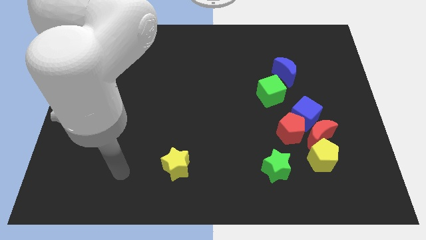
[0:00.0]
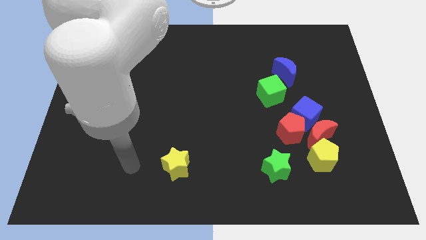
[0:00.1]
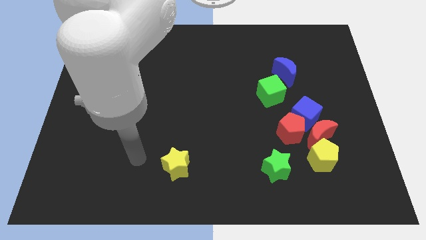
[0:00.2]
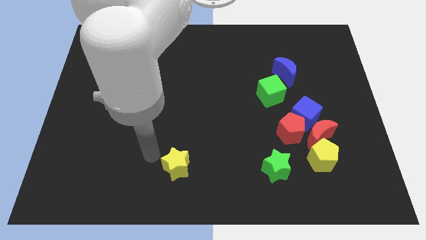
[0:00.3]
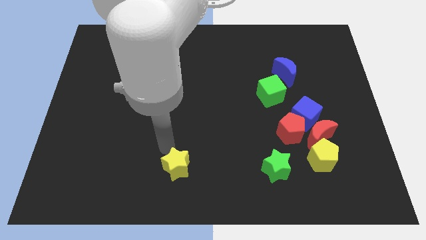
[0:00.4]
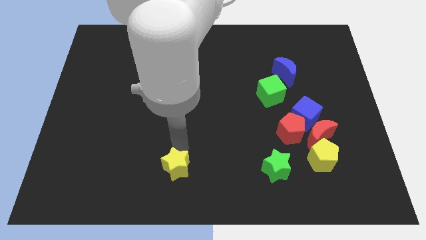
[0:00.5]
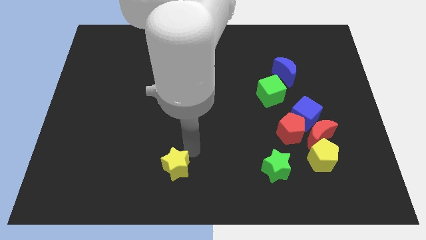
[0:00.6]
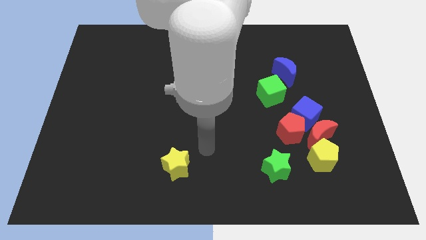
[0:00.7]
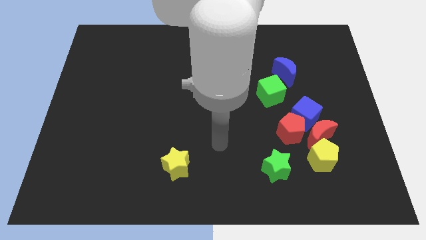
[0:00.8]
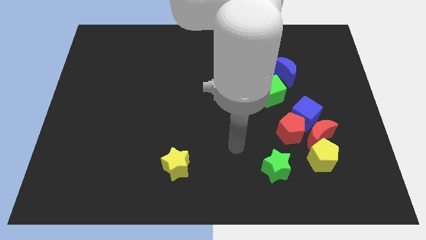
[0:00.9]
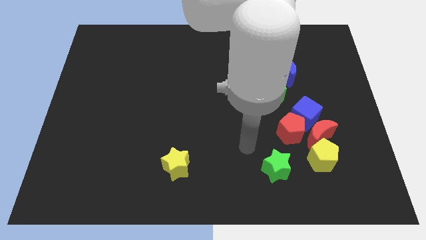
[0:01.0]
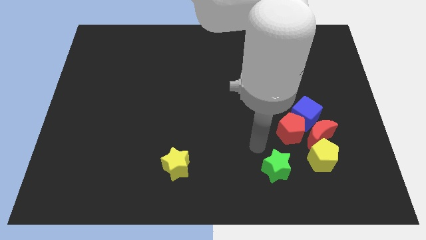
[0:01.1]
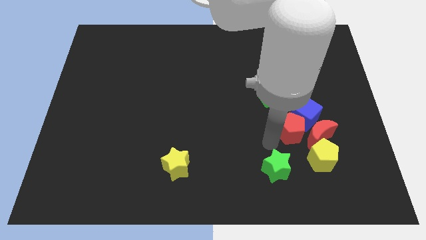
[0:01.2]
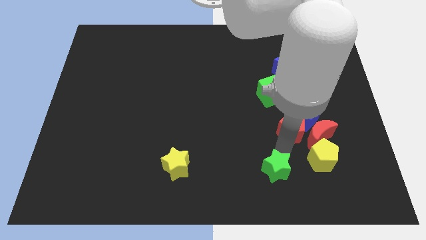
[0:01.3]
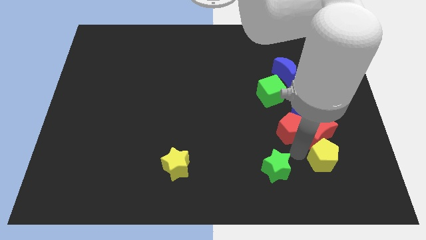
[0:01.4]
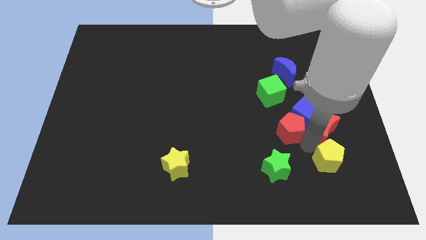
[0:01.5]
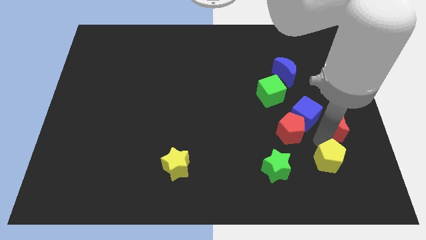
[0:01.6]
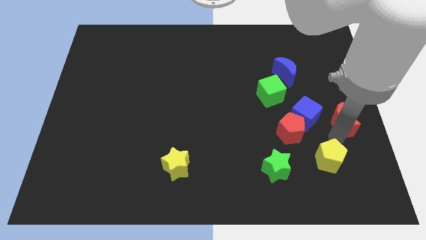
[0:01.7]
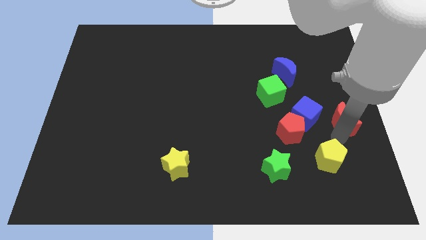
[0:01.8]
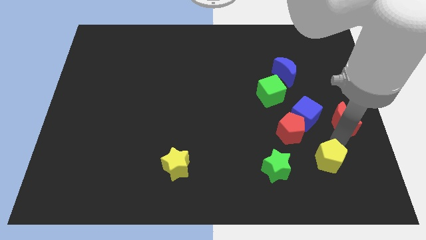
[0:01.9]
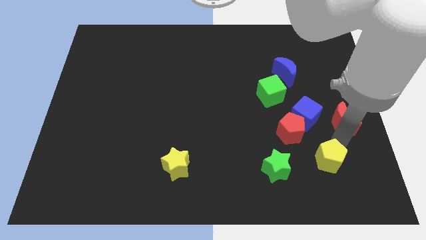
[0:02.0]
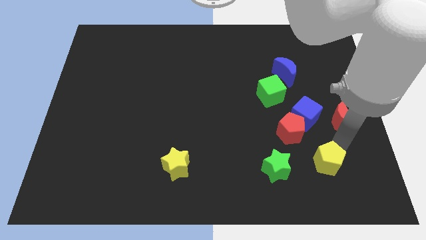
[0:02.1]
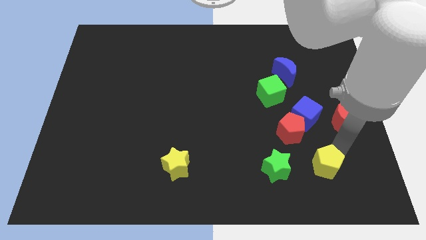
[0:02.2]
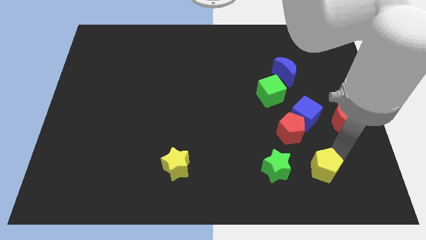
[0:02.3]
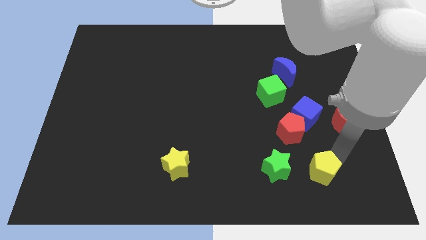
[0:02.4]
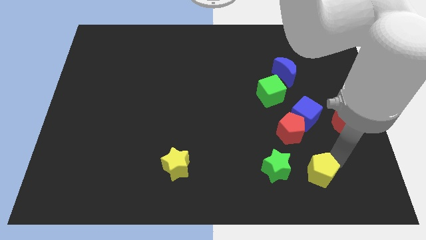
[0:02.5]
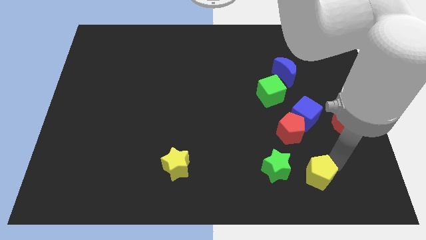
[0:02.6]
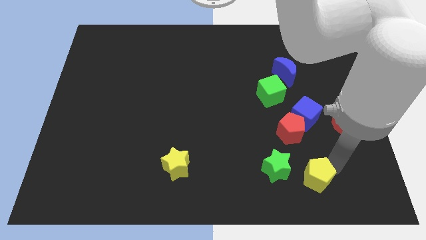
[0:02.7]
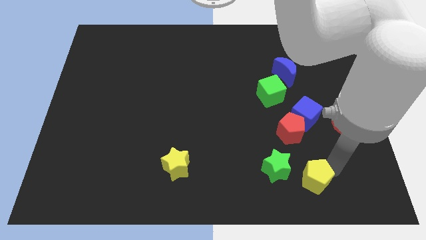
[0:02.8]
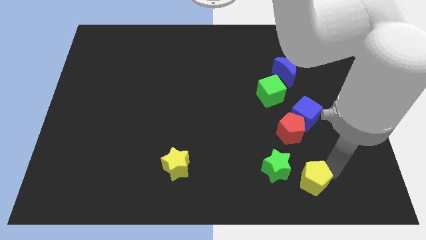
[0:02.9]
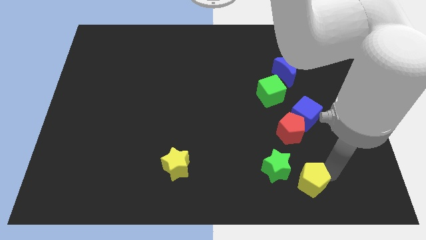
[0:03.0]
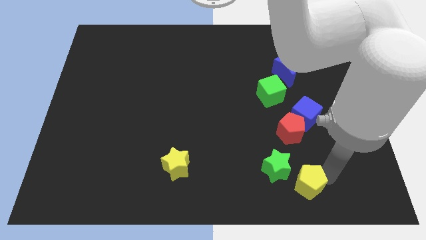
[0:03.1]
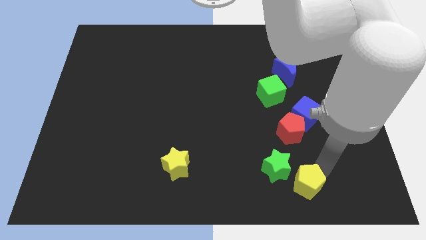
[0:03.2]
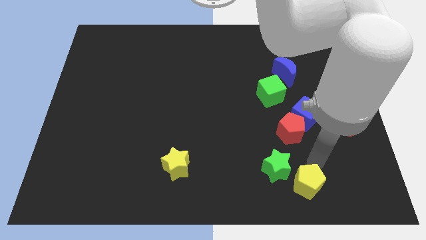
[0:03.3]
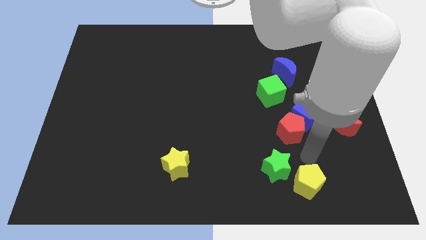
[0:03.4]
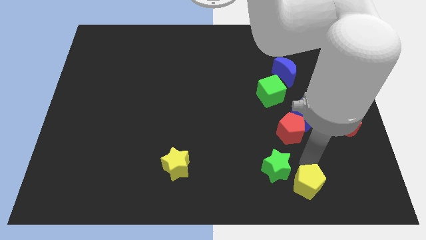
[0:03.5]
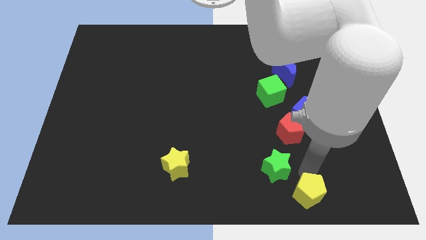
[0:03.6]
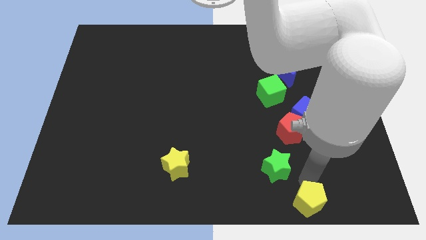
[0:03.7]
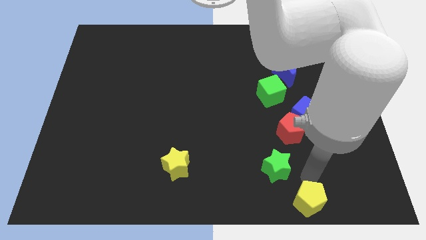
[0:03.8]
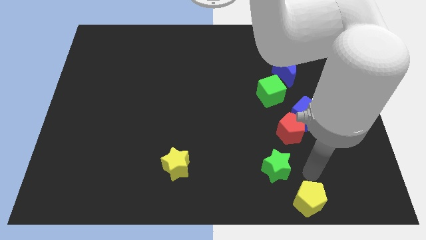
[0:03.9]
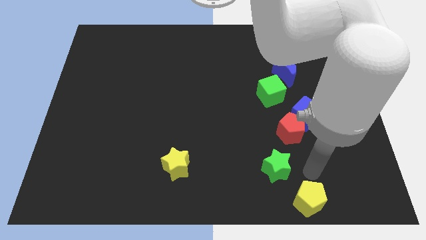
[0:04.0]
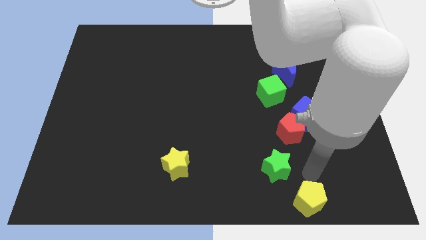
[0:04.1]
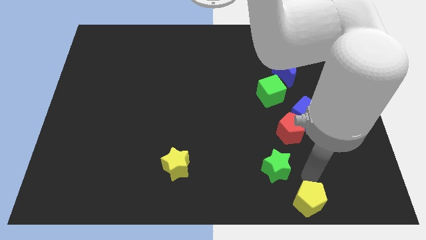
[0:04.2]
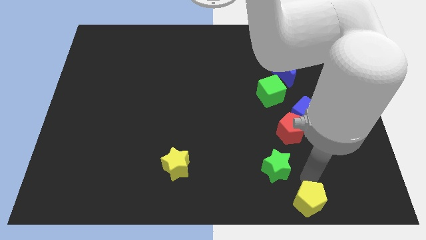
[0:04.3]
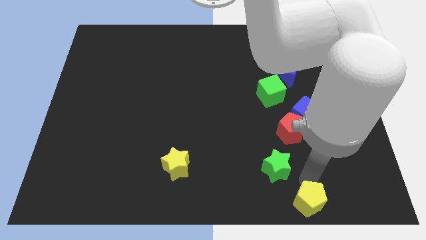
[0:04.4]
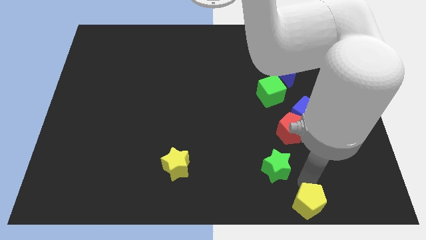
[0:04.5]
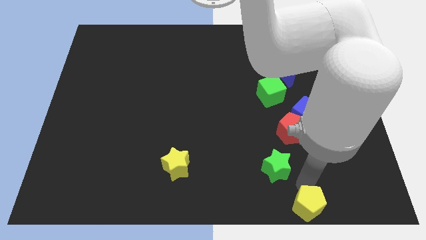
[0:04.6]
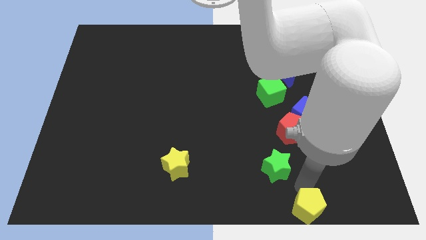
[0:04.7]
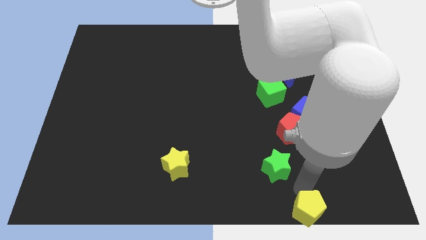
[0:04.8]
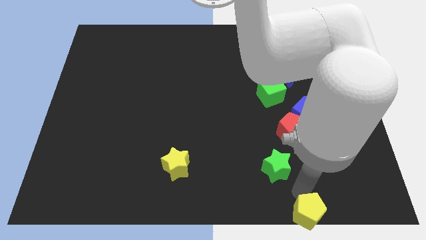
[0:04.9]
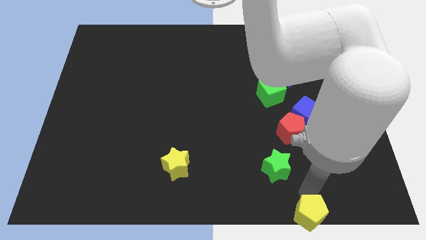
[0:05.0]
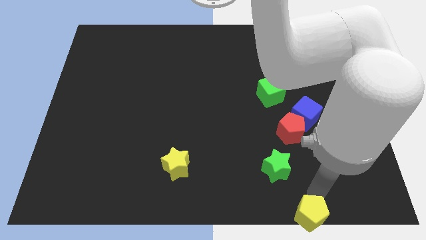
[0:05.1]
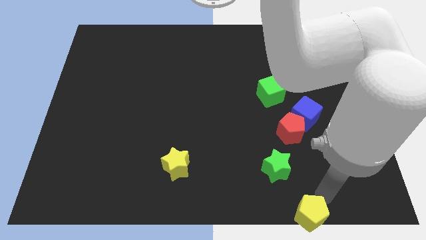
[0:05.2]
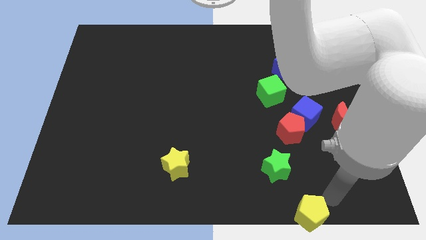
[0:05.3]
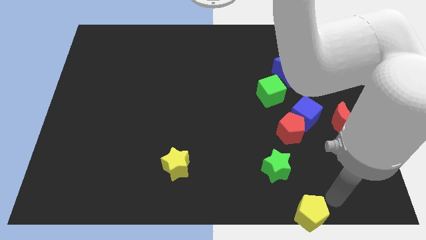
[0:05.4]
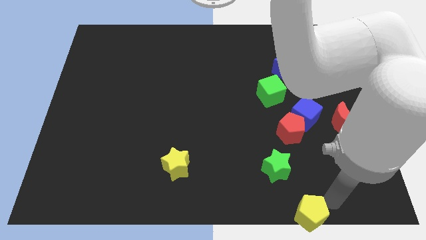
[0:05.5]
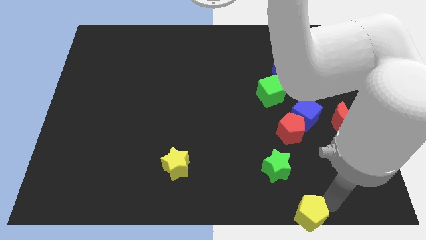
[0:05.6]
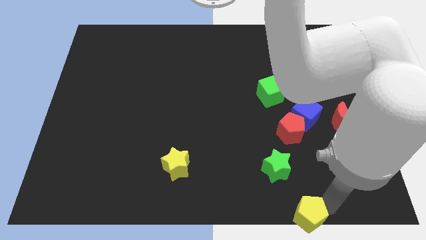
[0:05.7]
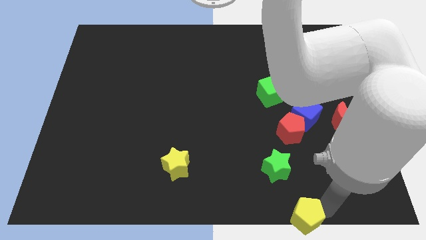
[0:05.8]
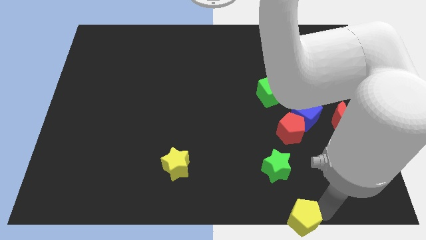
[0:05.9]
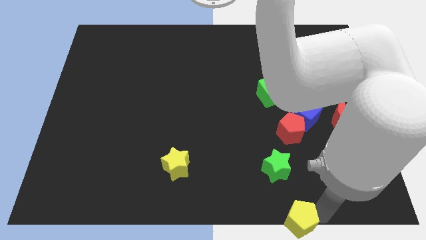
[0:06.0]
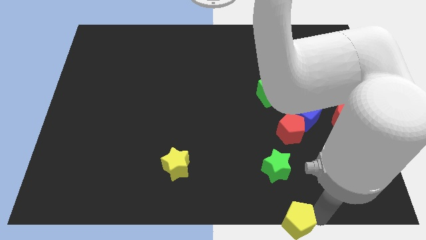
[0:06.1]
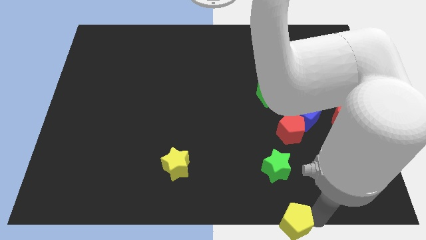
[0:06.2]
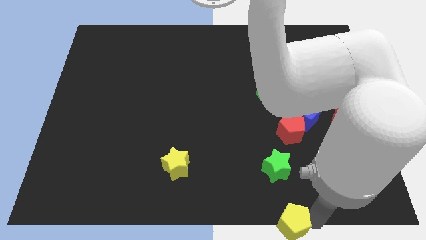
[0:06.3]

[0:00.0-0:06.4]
slide the yellow pentagon to the bottom
